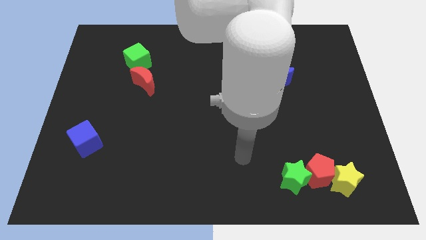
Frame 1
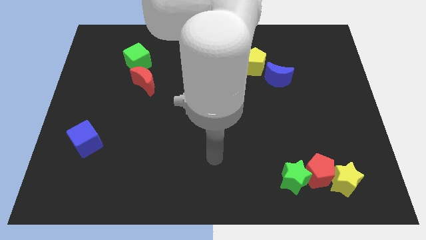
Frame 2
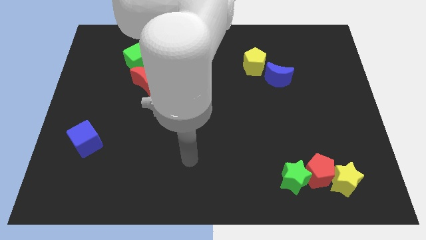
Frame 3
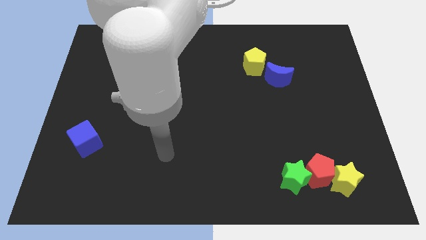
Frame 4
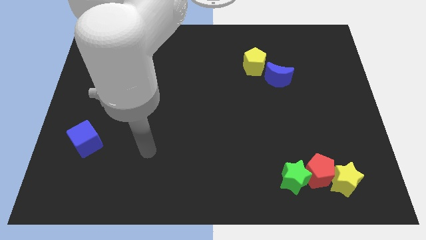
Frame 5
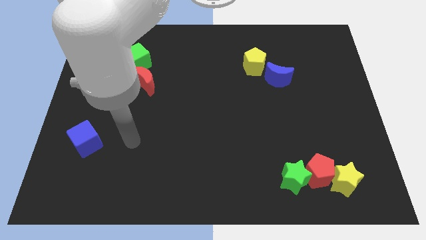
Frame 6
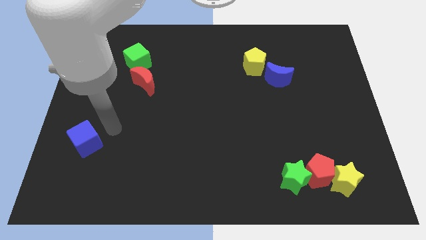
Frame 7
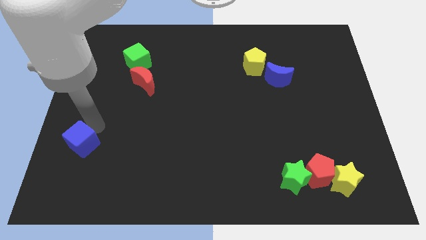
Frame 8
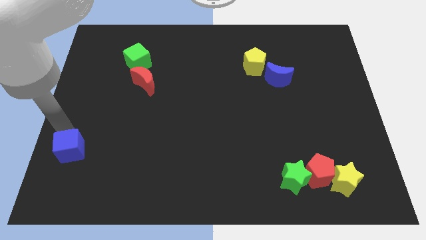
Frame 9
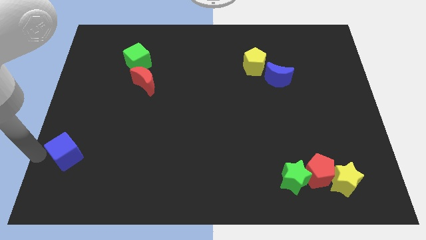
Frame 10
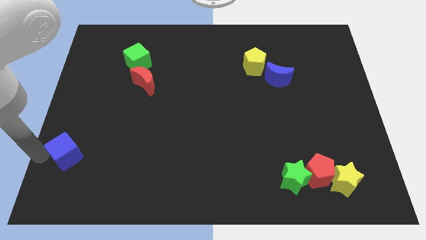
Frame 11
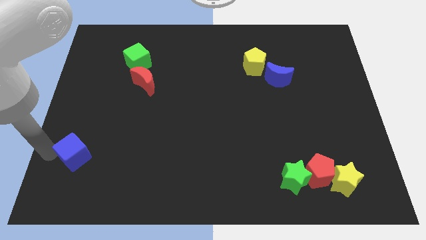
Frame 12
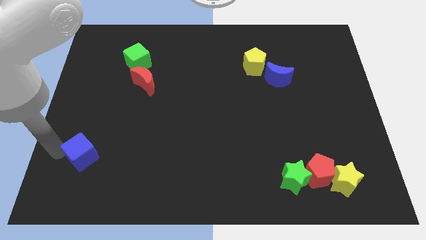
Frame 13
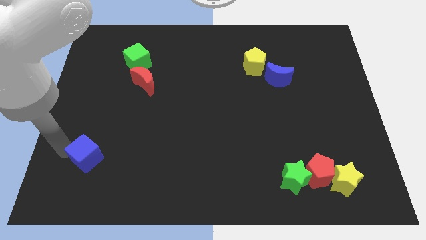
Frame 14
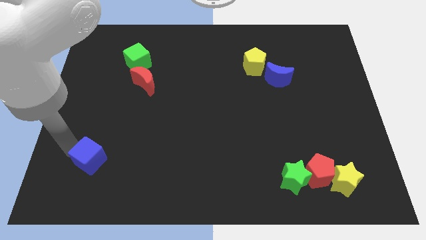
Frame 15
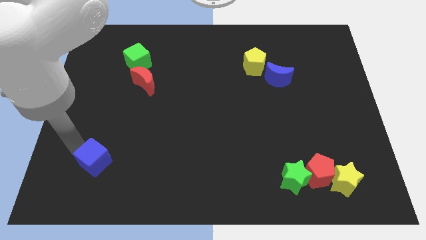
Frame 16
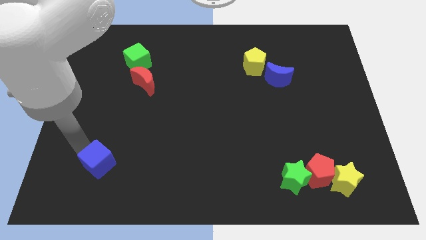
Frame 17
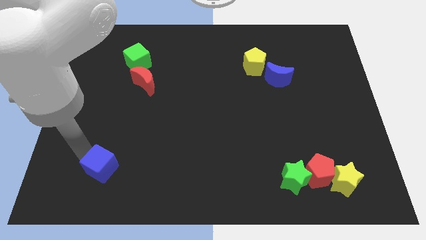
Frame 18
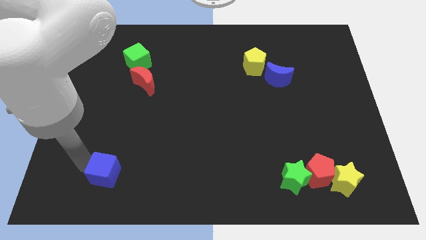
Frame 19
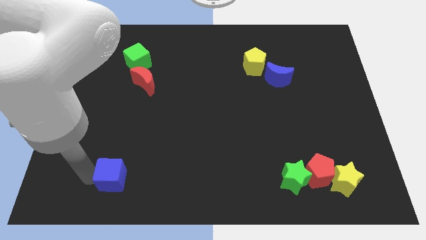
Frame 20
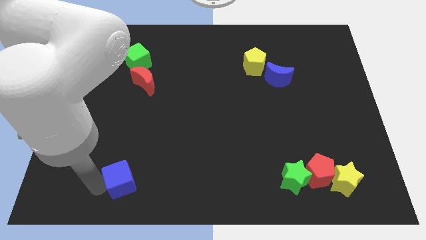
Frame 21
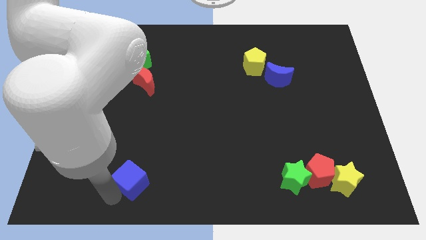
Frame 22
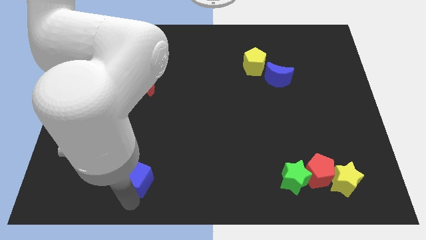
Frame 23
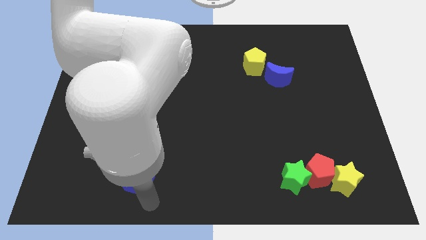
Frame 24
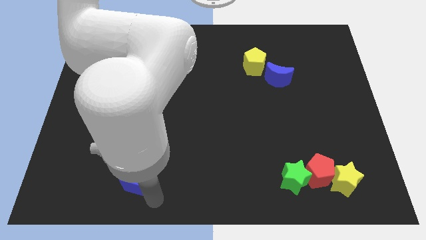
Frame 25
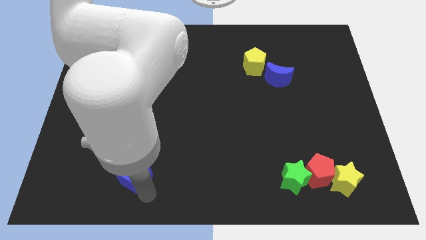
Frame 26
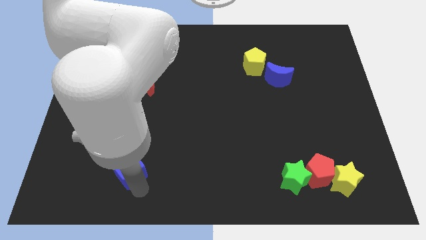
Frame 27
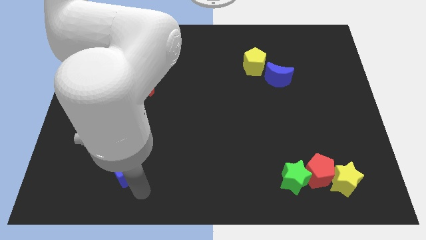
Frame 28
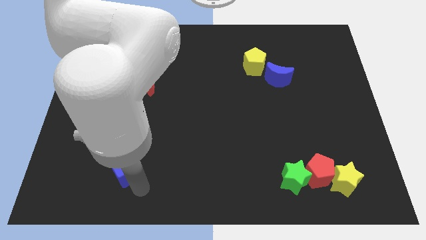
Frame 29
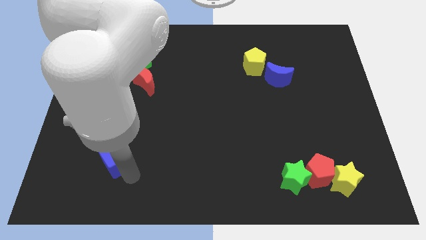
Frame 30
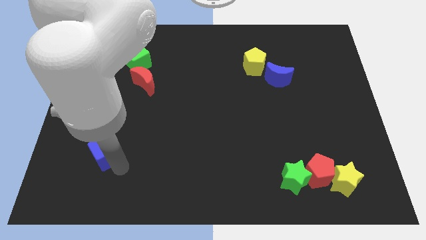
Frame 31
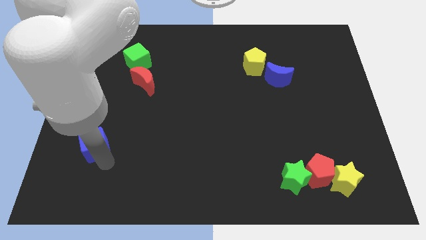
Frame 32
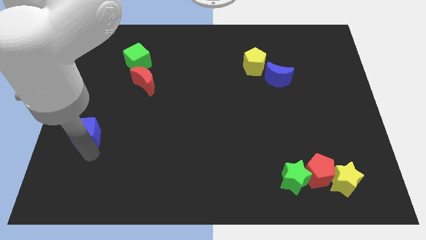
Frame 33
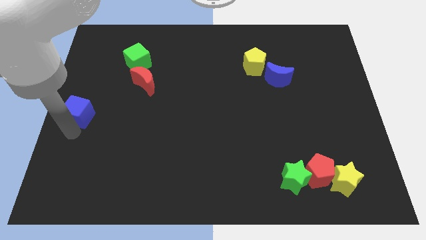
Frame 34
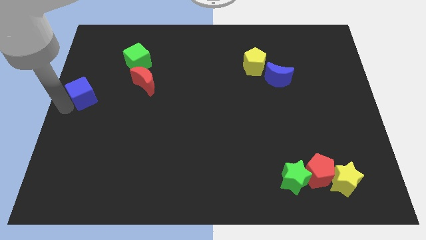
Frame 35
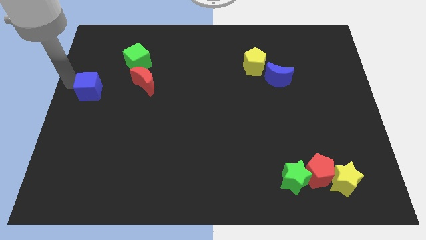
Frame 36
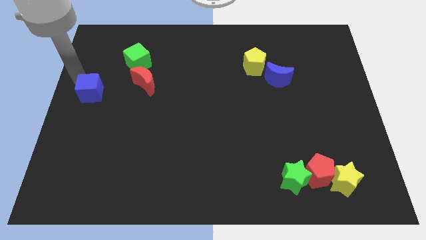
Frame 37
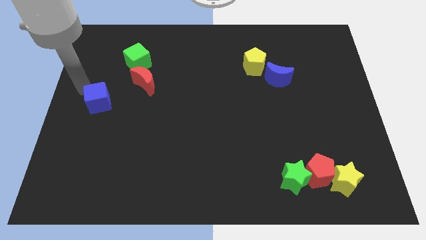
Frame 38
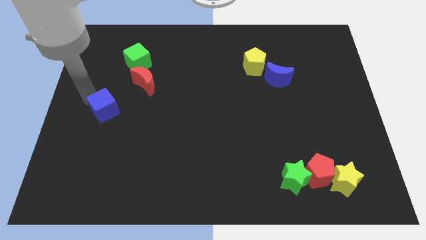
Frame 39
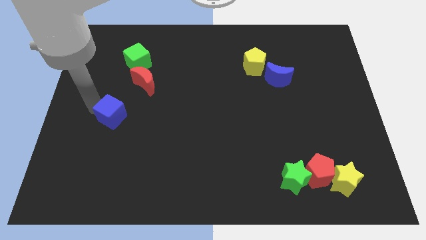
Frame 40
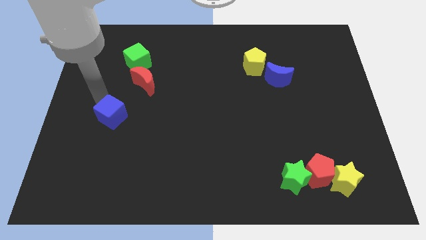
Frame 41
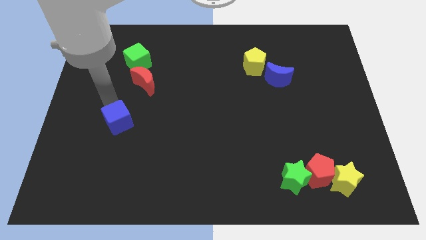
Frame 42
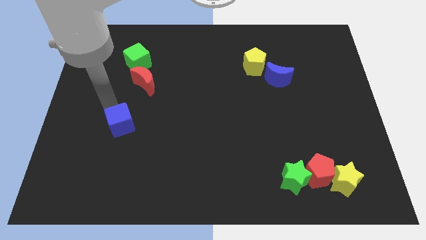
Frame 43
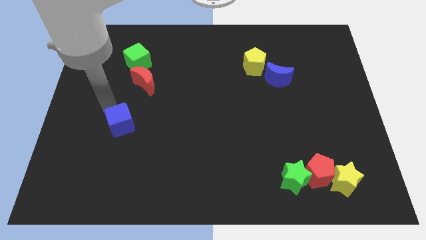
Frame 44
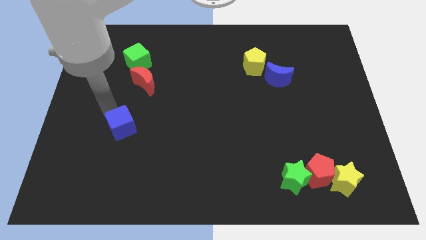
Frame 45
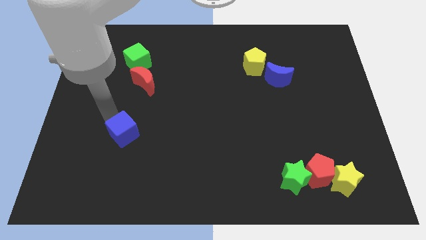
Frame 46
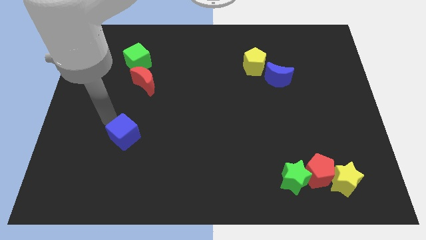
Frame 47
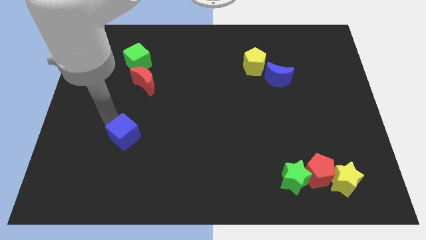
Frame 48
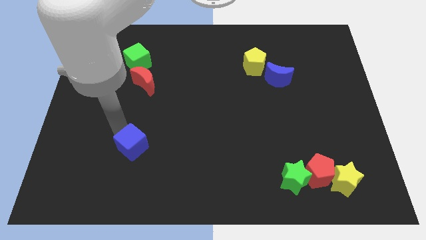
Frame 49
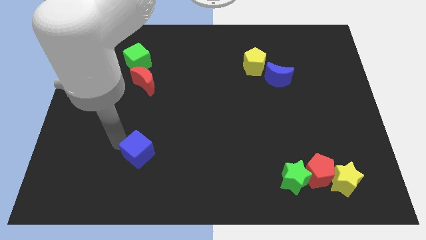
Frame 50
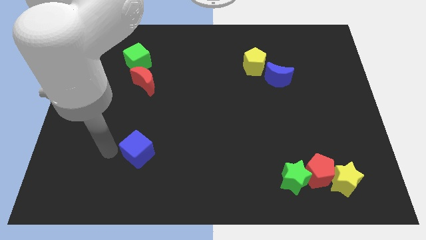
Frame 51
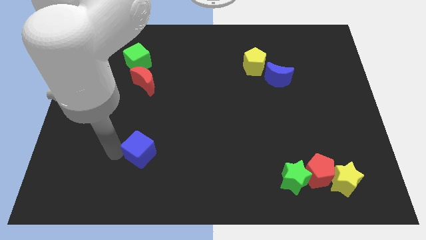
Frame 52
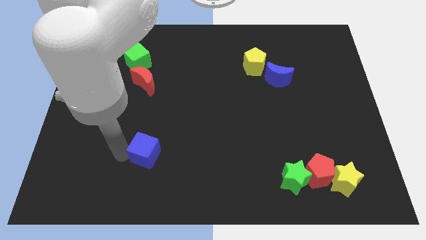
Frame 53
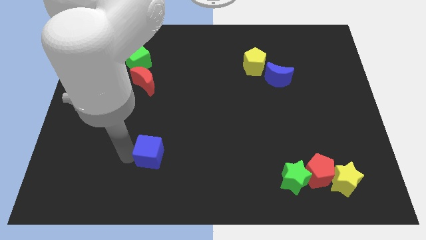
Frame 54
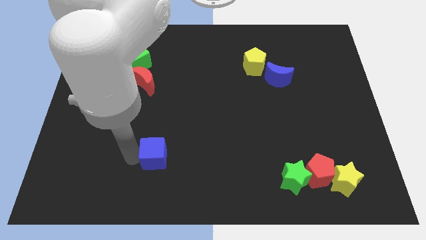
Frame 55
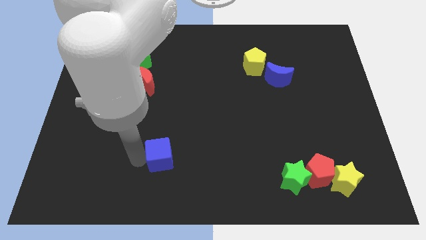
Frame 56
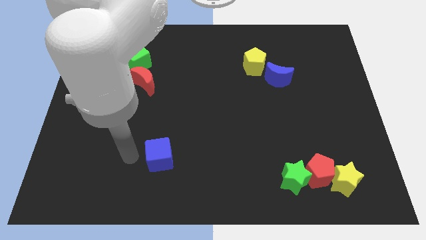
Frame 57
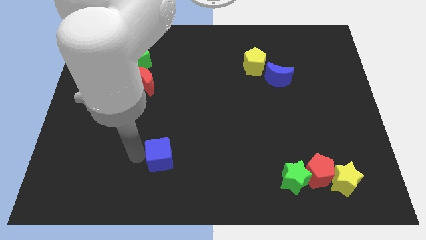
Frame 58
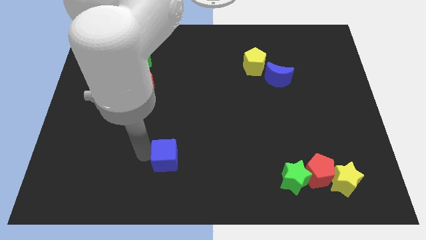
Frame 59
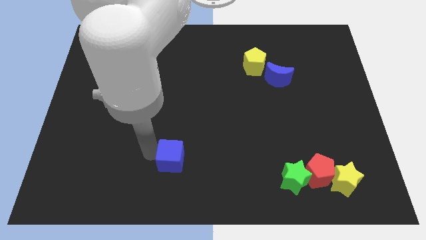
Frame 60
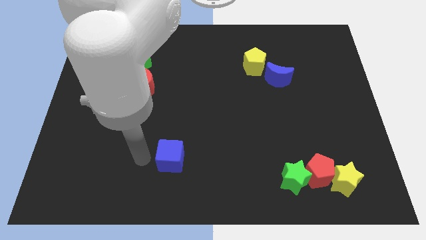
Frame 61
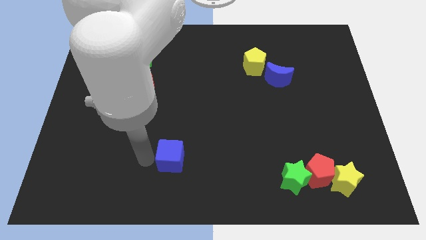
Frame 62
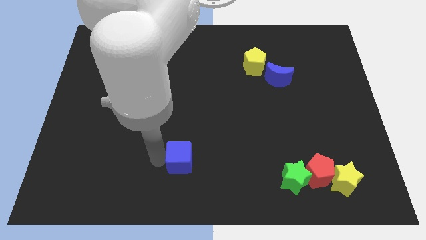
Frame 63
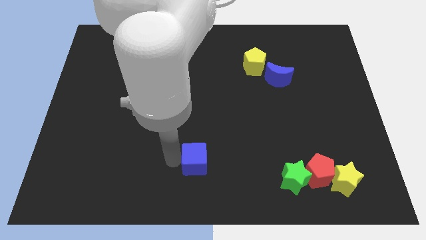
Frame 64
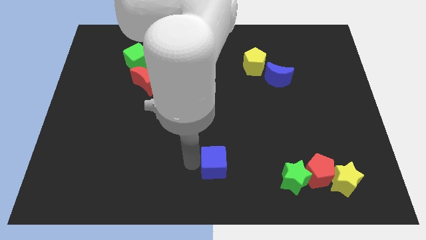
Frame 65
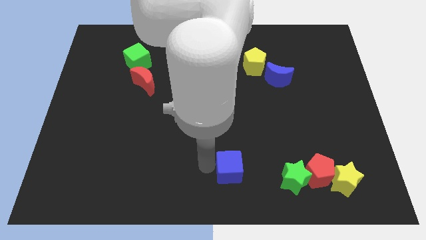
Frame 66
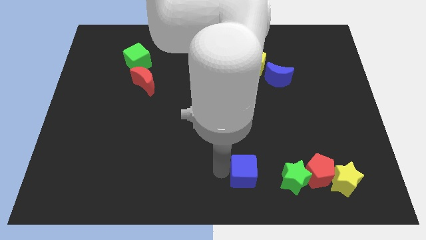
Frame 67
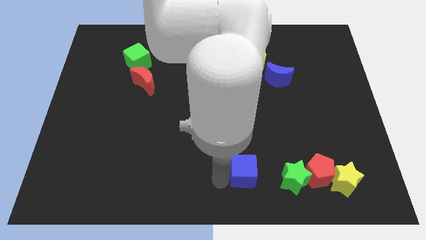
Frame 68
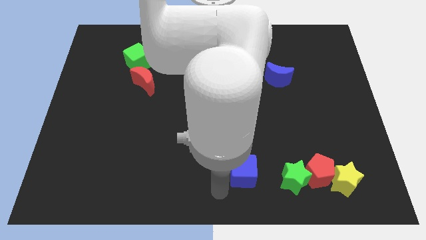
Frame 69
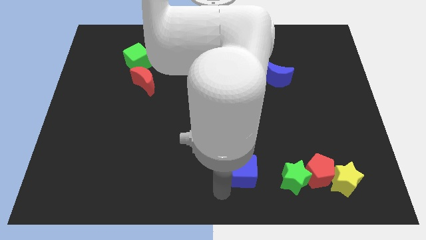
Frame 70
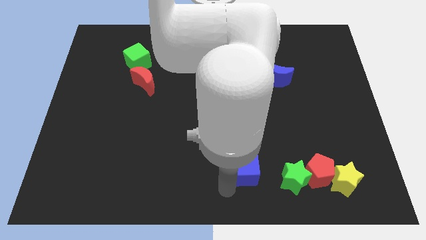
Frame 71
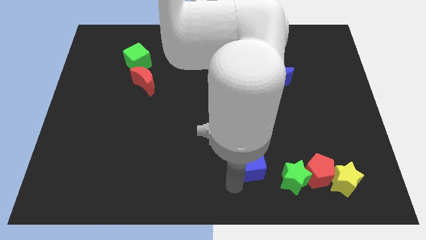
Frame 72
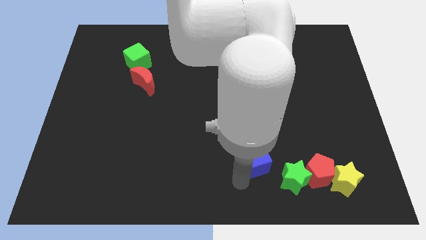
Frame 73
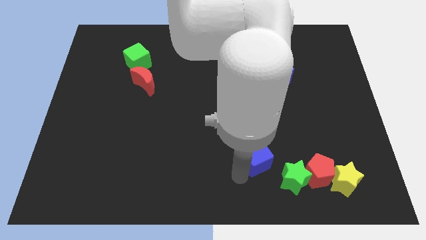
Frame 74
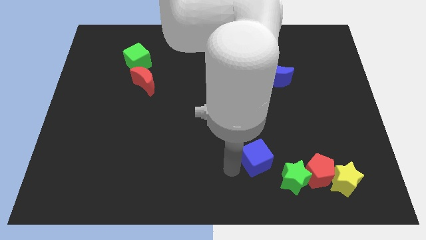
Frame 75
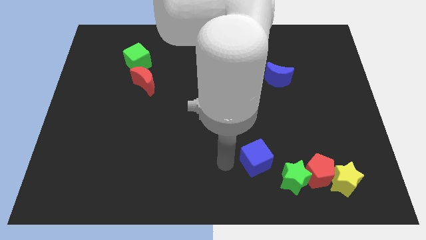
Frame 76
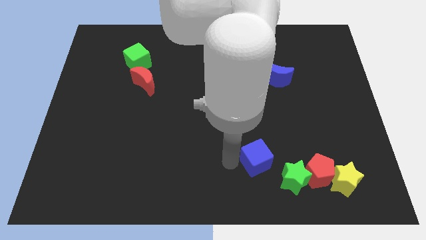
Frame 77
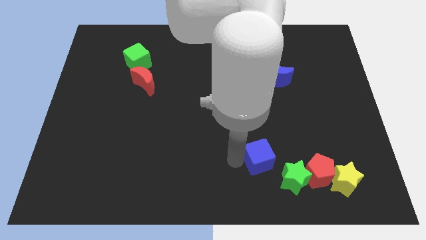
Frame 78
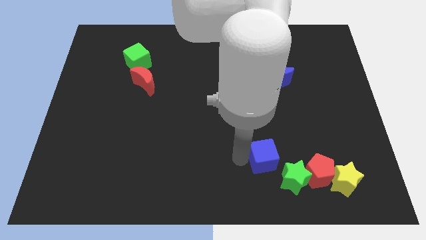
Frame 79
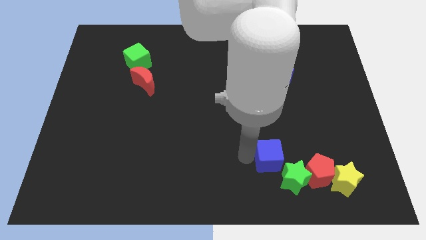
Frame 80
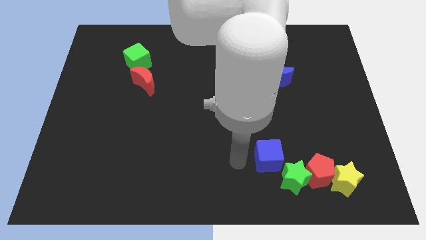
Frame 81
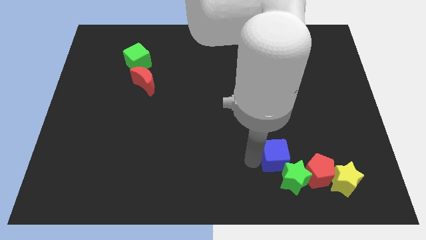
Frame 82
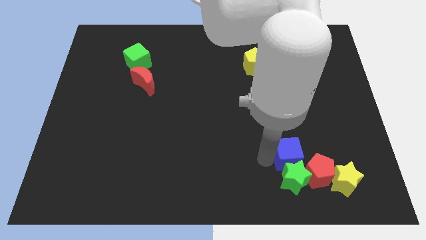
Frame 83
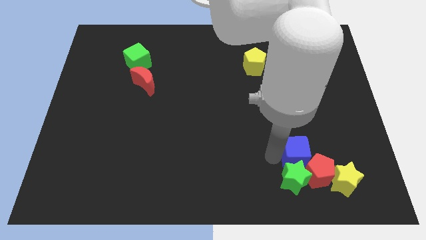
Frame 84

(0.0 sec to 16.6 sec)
put the blue cube towards the red pentagon
